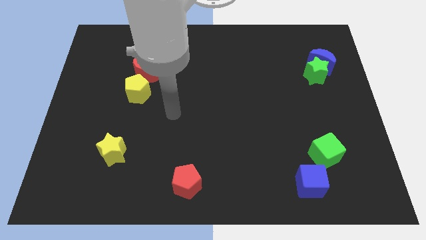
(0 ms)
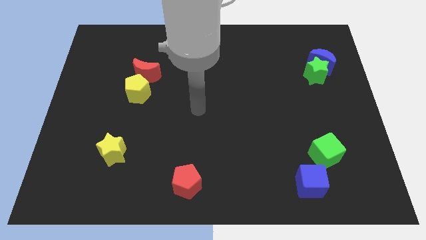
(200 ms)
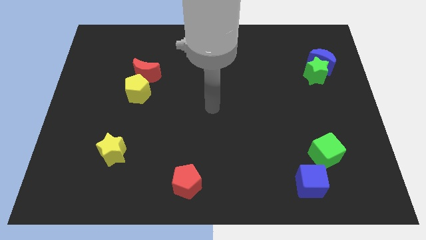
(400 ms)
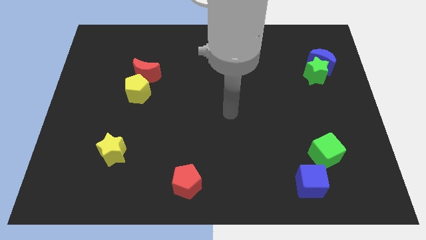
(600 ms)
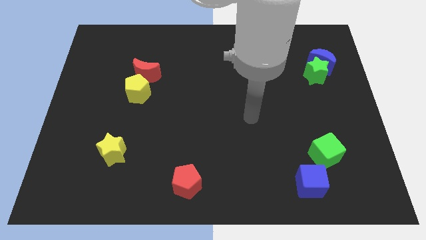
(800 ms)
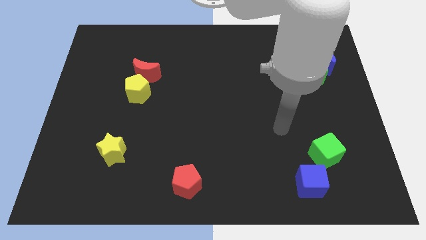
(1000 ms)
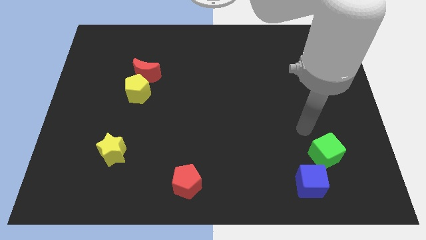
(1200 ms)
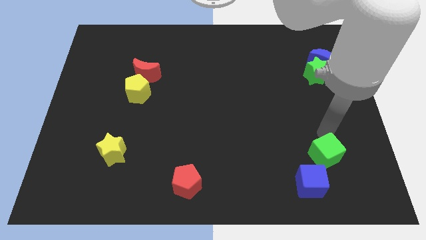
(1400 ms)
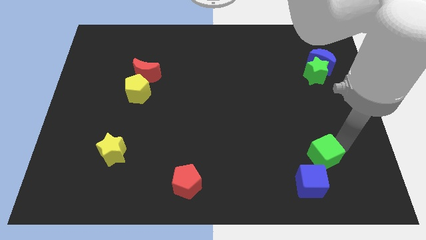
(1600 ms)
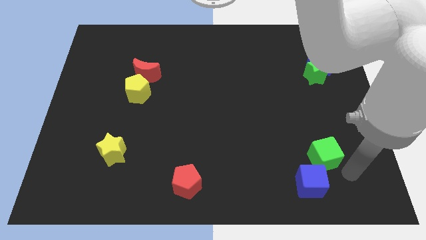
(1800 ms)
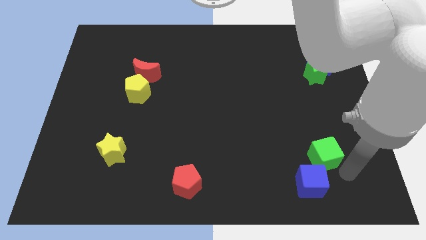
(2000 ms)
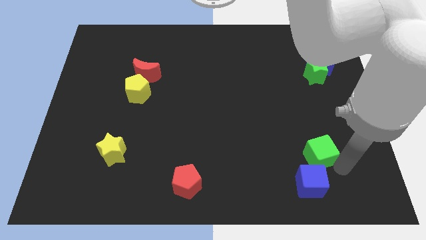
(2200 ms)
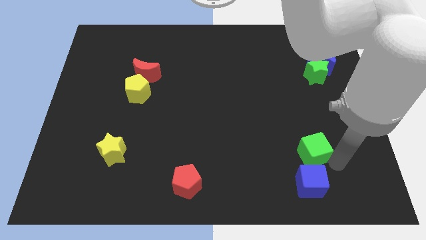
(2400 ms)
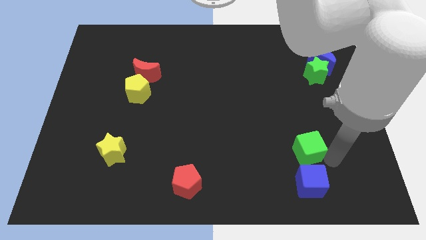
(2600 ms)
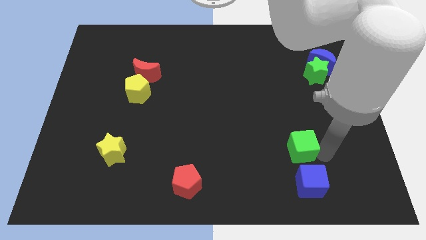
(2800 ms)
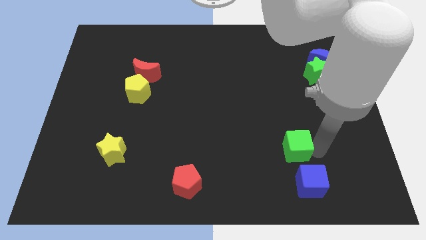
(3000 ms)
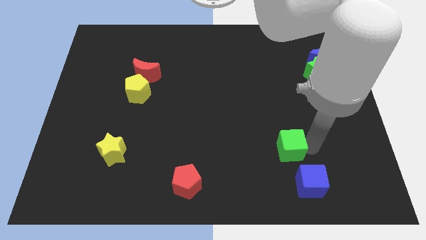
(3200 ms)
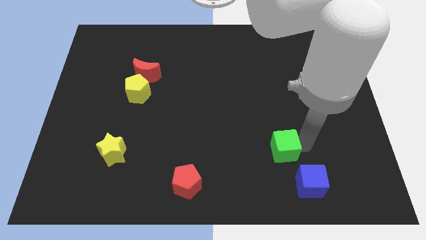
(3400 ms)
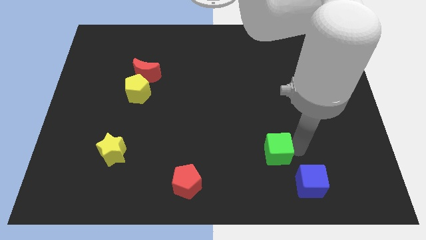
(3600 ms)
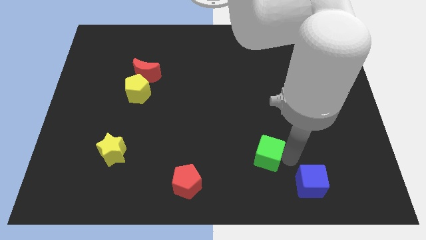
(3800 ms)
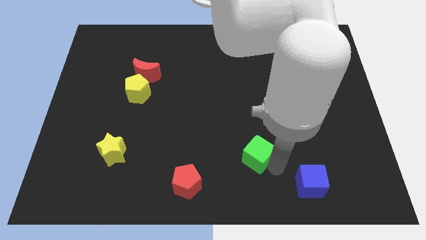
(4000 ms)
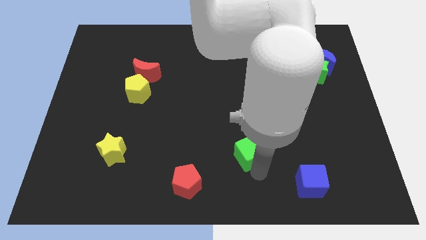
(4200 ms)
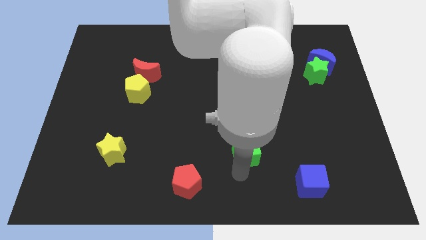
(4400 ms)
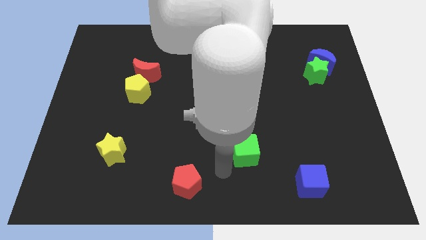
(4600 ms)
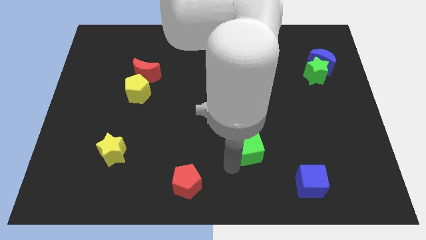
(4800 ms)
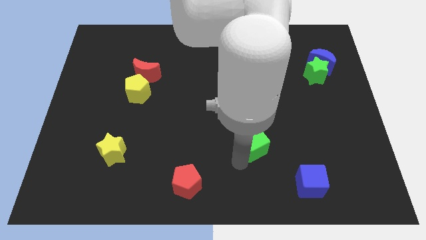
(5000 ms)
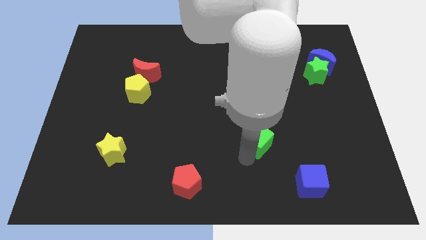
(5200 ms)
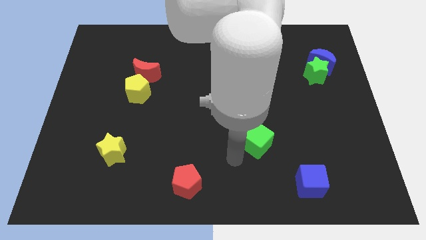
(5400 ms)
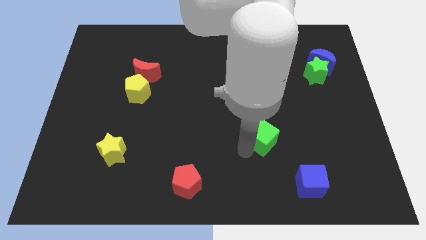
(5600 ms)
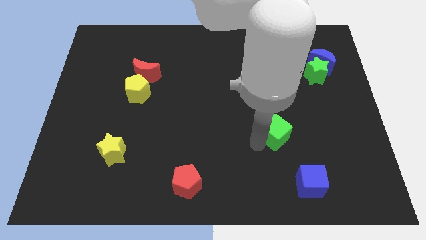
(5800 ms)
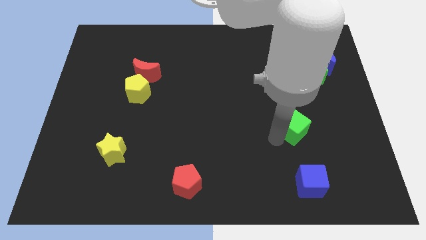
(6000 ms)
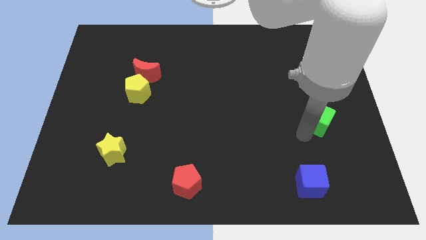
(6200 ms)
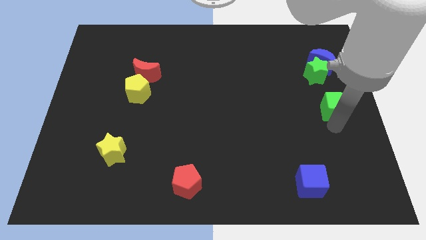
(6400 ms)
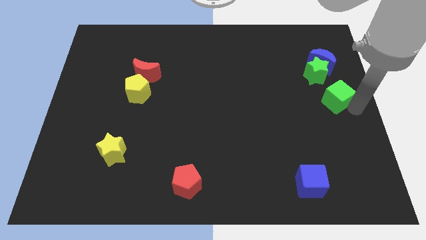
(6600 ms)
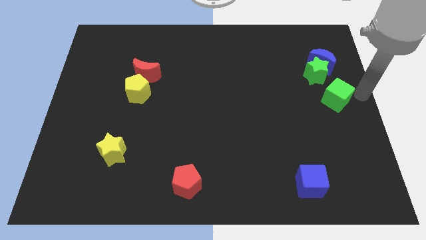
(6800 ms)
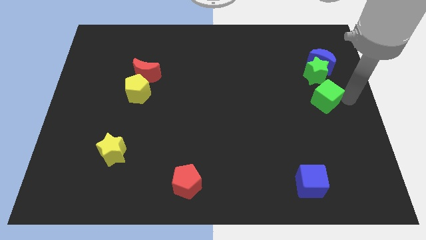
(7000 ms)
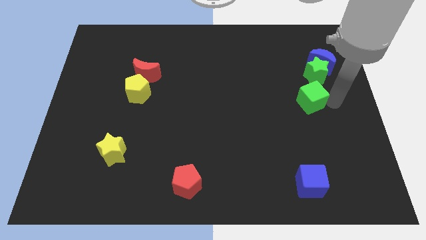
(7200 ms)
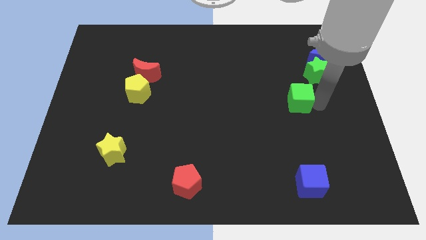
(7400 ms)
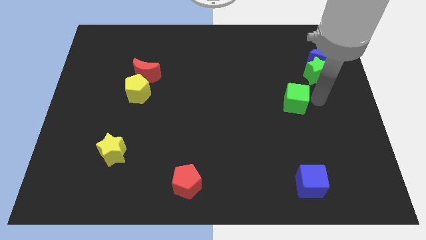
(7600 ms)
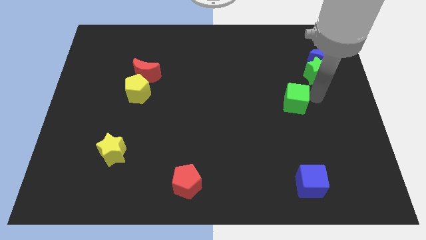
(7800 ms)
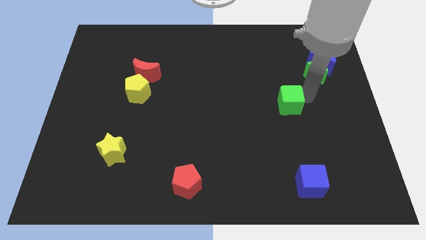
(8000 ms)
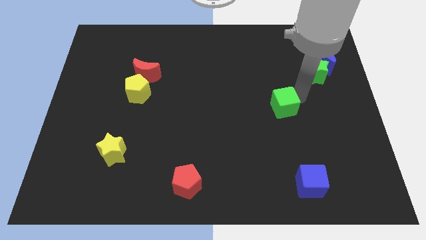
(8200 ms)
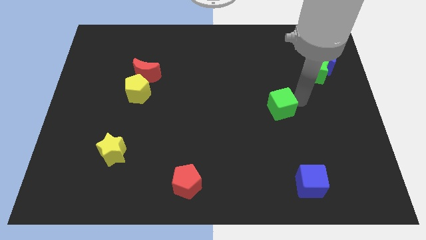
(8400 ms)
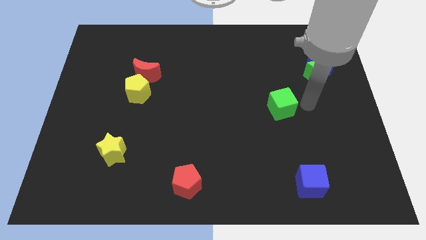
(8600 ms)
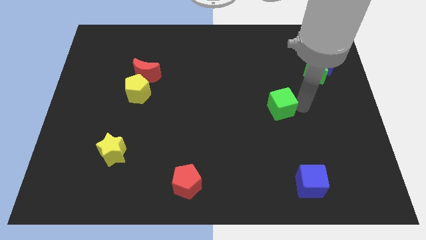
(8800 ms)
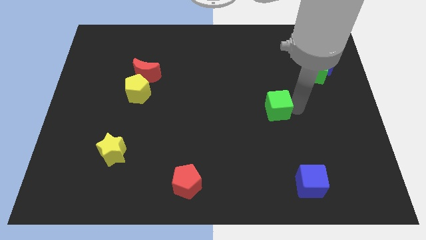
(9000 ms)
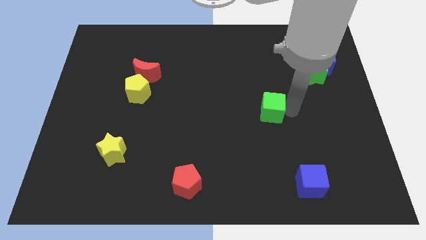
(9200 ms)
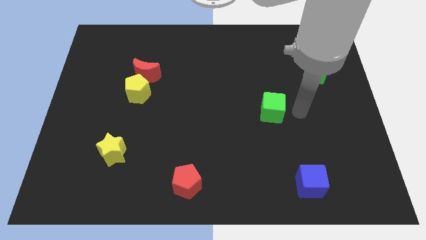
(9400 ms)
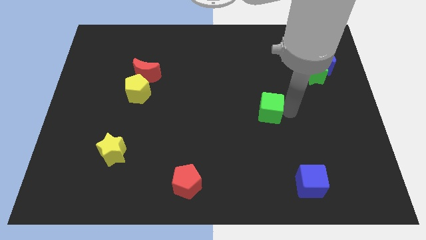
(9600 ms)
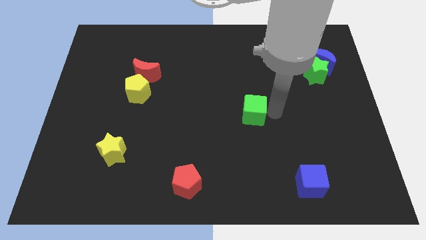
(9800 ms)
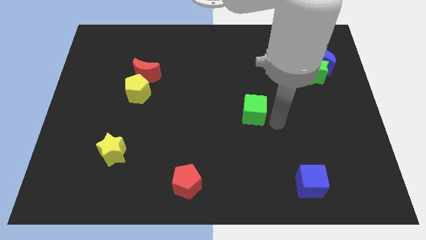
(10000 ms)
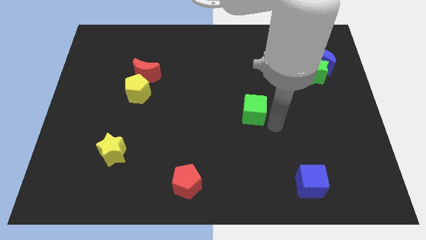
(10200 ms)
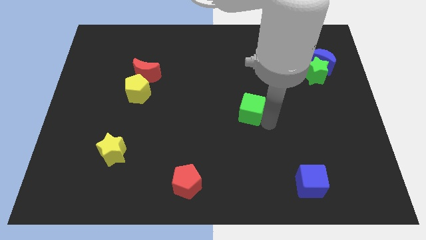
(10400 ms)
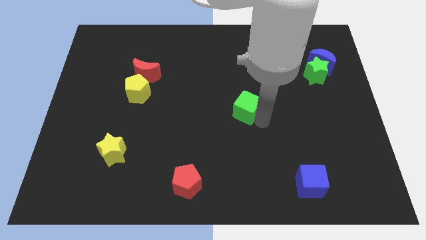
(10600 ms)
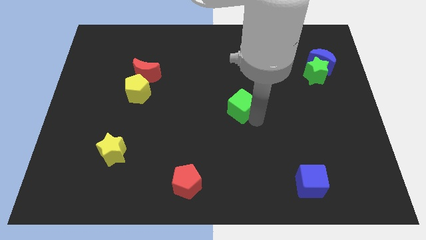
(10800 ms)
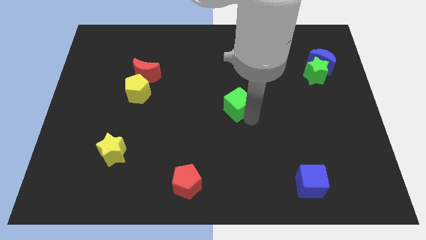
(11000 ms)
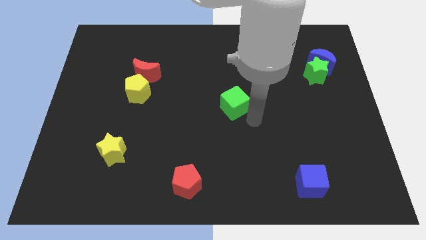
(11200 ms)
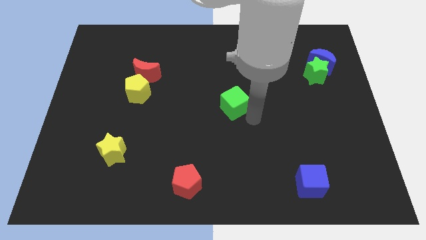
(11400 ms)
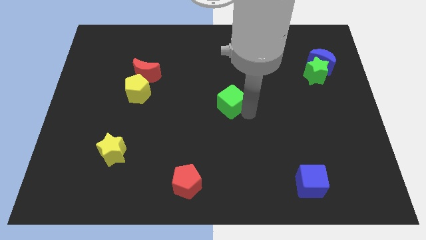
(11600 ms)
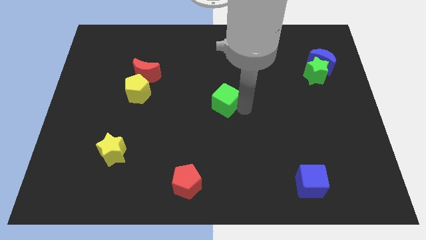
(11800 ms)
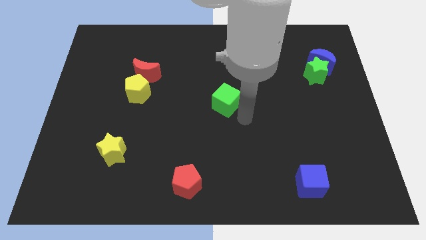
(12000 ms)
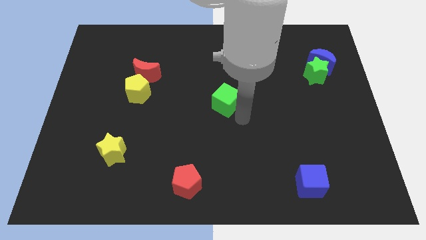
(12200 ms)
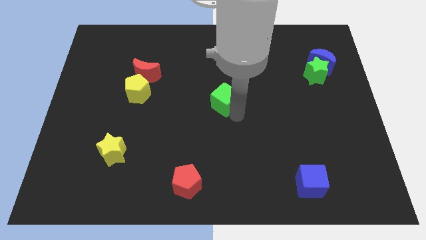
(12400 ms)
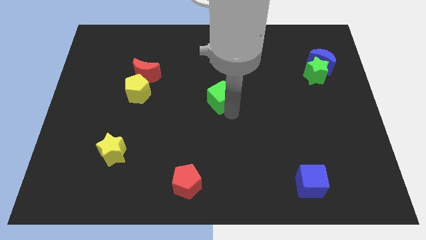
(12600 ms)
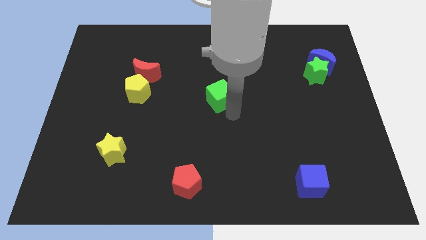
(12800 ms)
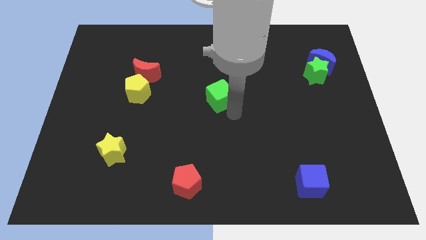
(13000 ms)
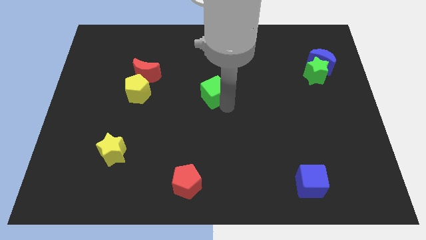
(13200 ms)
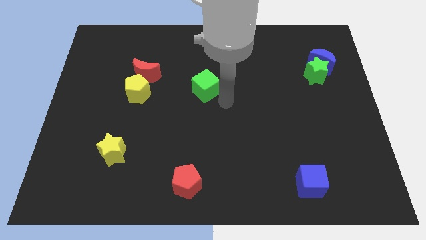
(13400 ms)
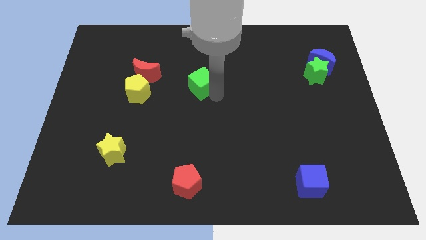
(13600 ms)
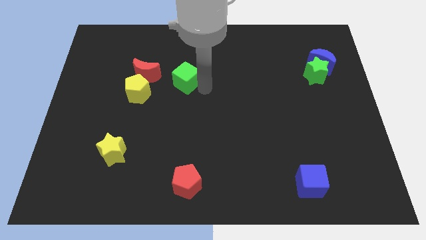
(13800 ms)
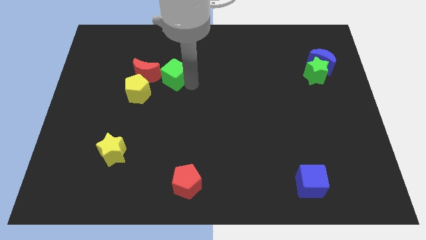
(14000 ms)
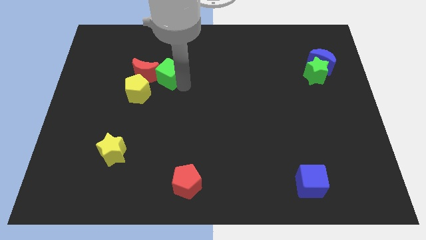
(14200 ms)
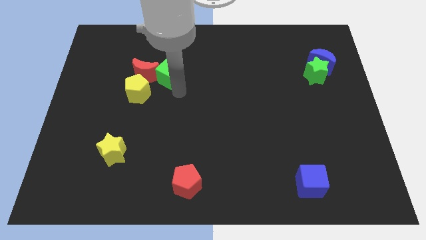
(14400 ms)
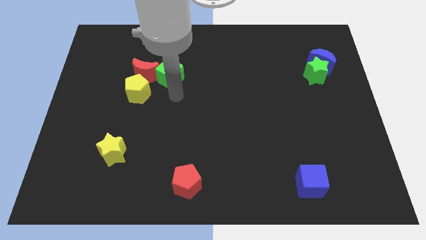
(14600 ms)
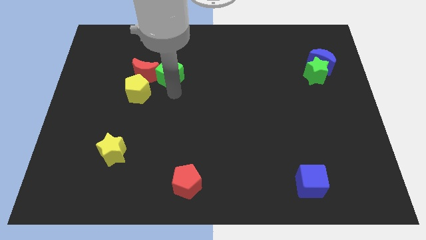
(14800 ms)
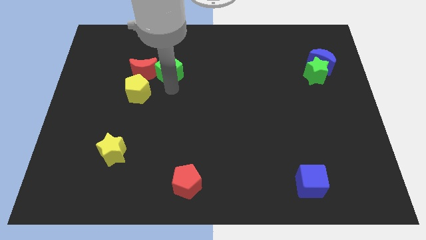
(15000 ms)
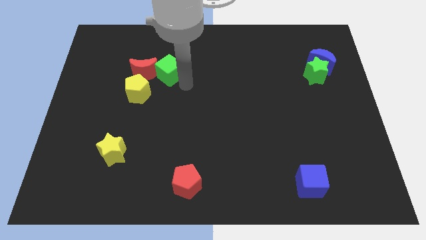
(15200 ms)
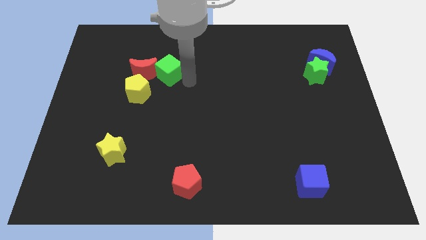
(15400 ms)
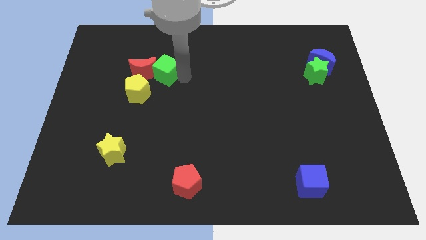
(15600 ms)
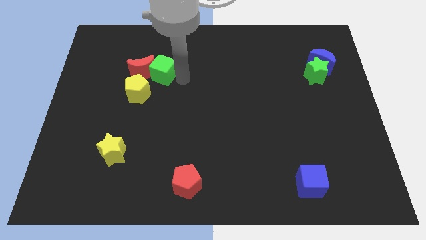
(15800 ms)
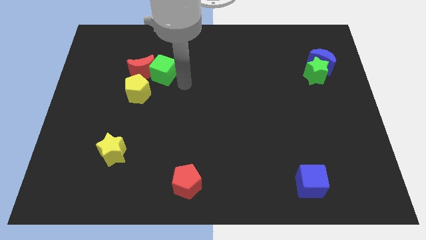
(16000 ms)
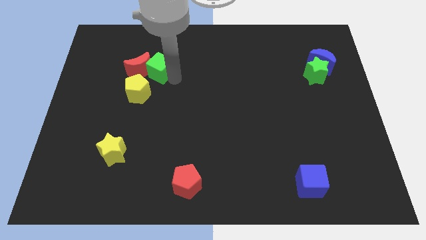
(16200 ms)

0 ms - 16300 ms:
push the green cube above the yellow pentagon
